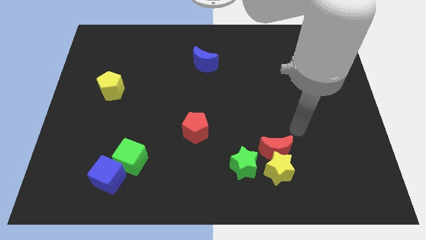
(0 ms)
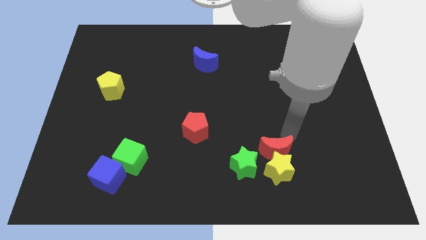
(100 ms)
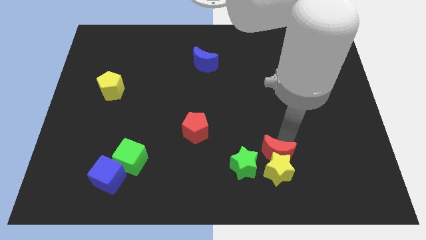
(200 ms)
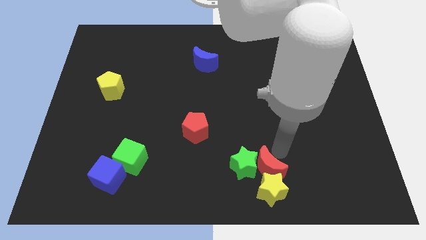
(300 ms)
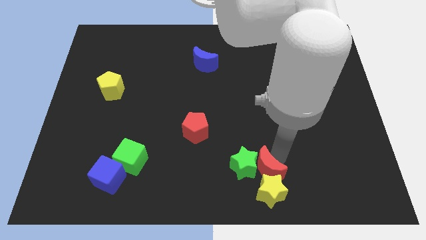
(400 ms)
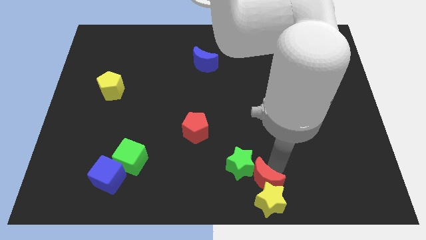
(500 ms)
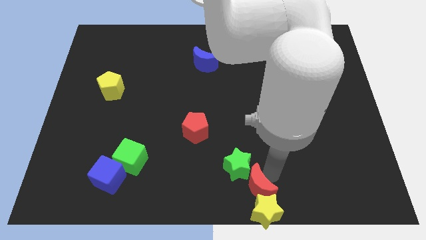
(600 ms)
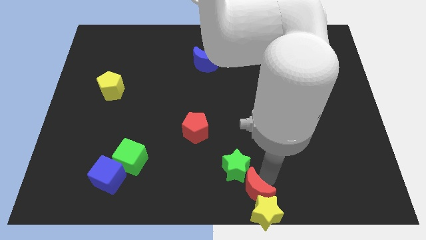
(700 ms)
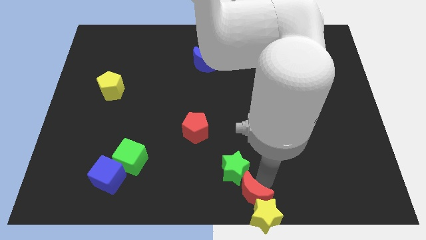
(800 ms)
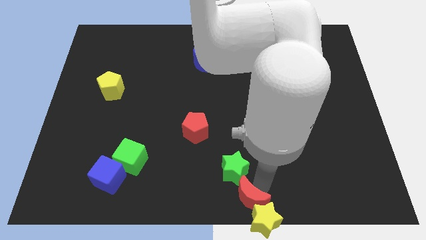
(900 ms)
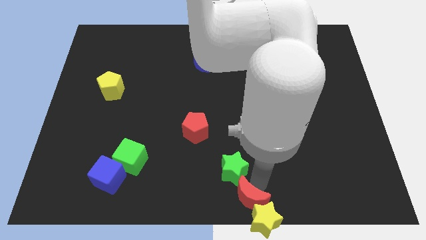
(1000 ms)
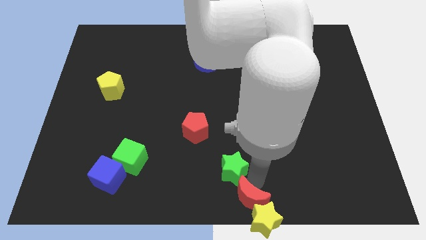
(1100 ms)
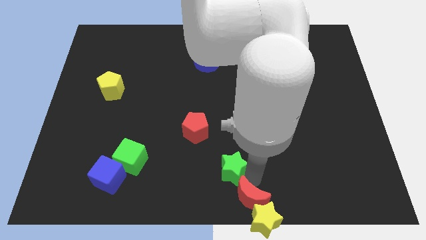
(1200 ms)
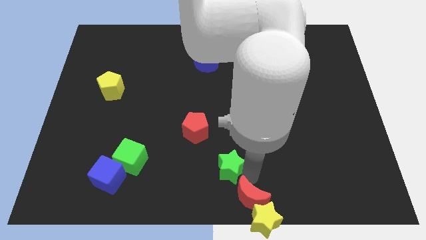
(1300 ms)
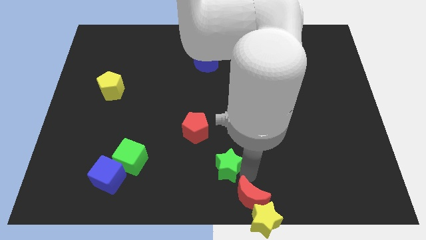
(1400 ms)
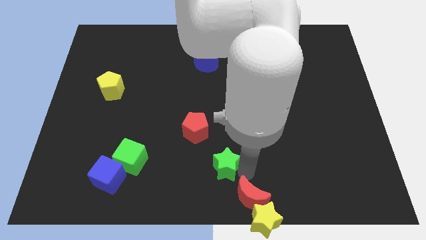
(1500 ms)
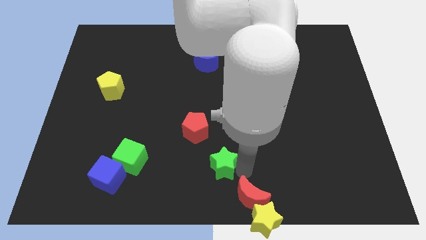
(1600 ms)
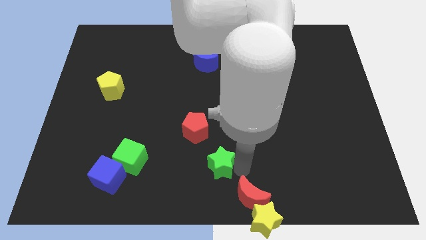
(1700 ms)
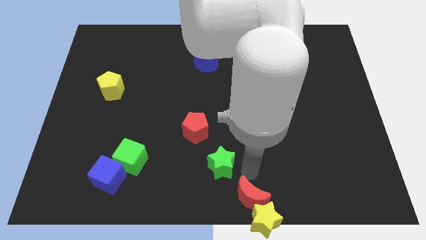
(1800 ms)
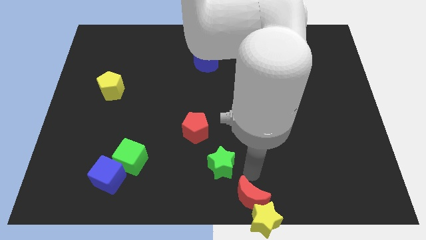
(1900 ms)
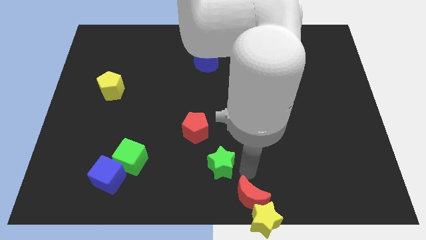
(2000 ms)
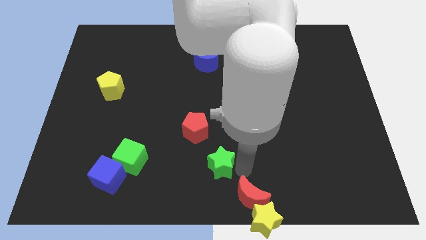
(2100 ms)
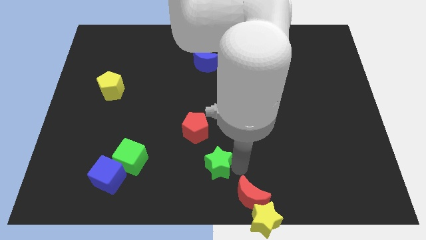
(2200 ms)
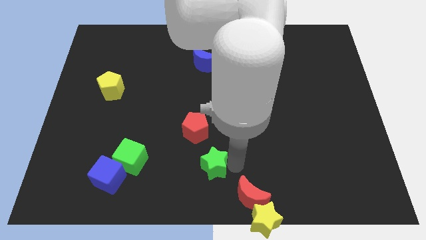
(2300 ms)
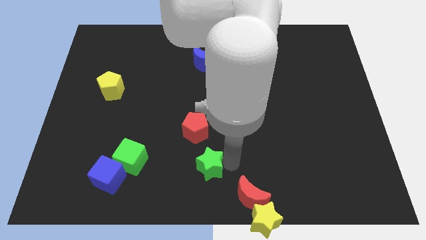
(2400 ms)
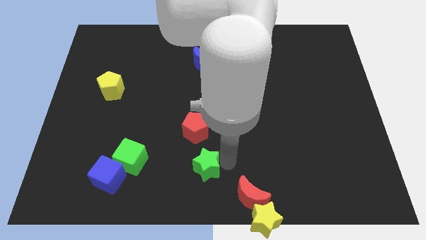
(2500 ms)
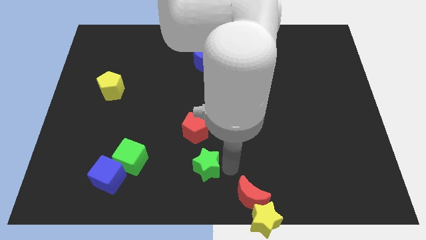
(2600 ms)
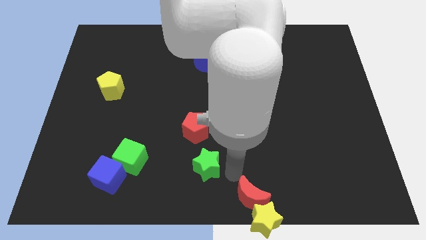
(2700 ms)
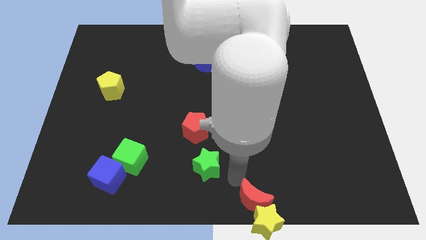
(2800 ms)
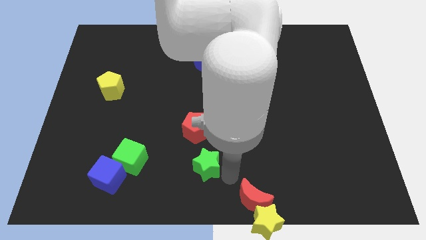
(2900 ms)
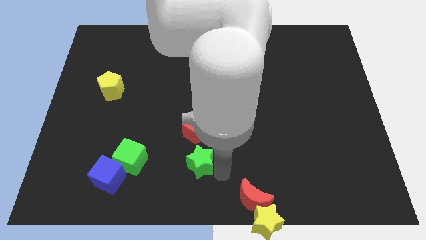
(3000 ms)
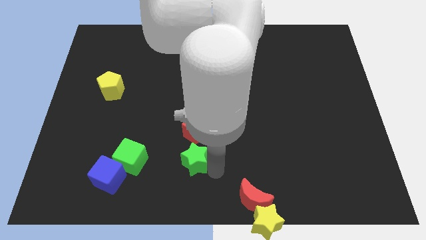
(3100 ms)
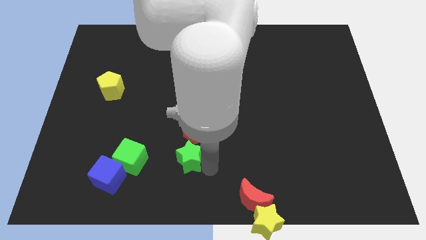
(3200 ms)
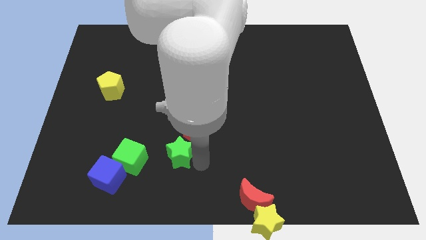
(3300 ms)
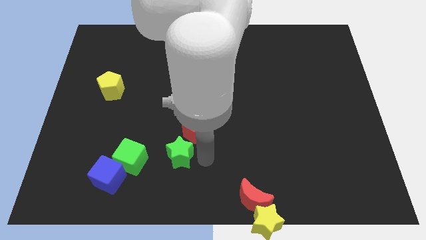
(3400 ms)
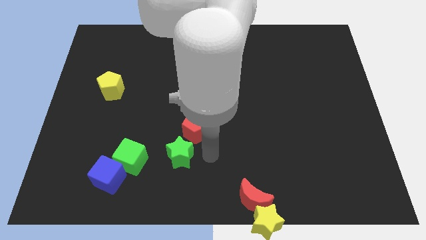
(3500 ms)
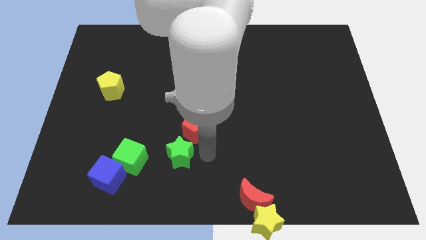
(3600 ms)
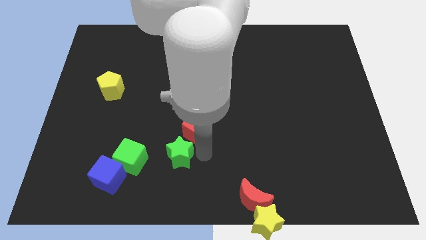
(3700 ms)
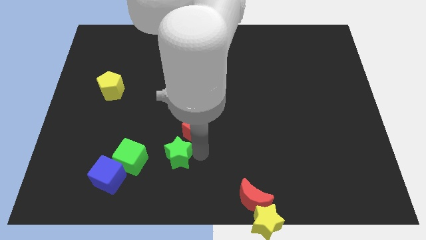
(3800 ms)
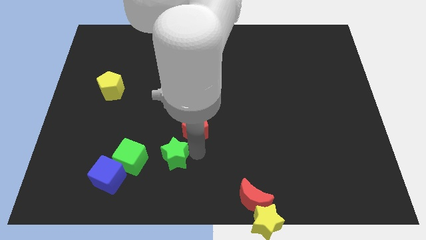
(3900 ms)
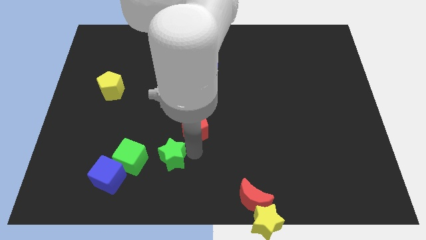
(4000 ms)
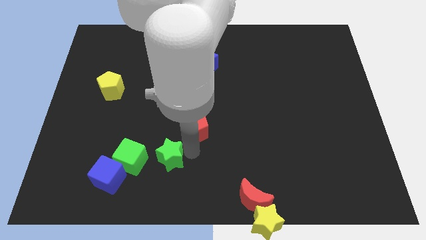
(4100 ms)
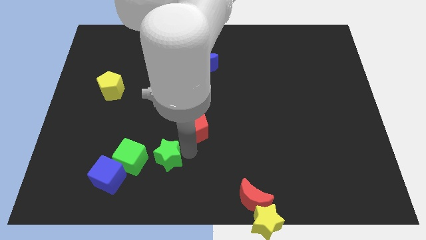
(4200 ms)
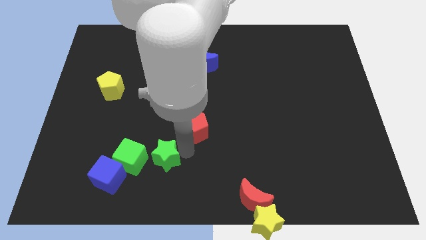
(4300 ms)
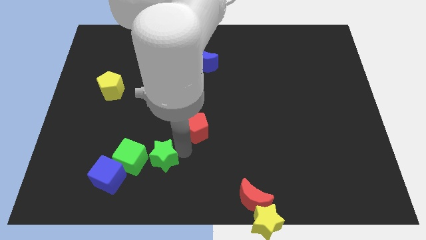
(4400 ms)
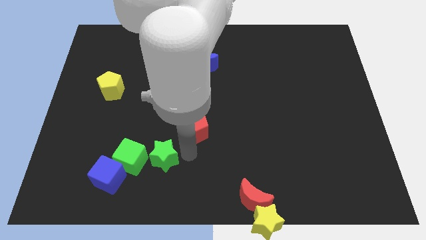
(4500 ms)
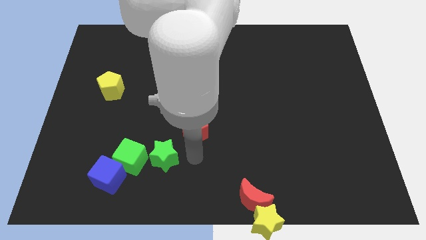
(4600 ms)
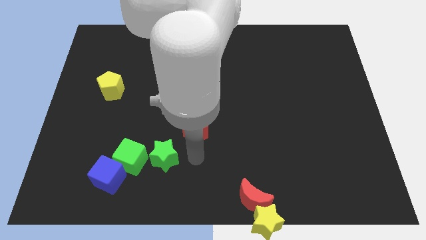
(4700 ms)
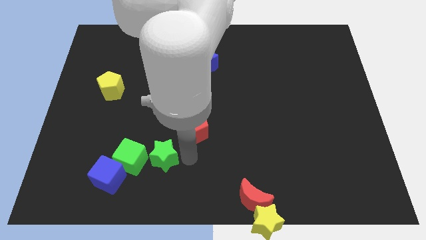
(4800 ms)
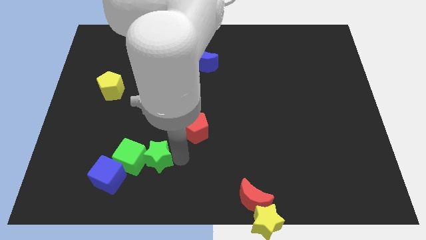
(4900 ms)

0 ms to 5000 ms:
move the green star next to the green cube

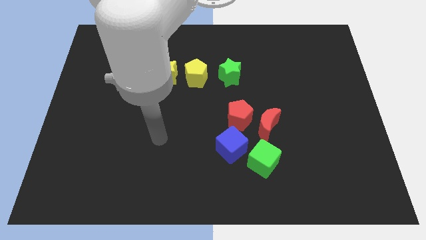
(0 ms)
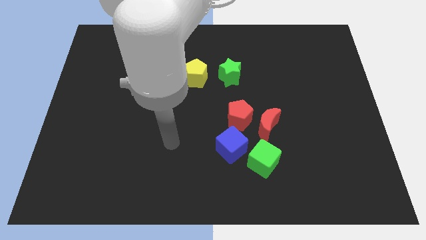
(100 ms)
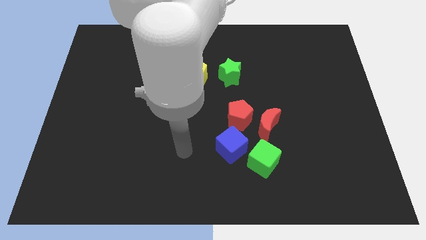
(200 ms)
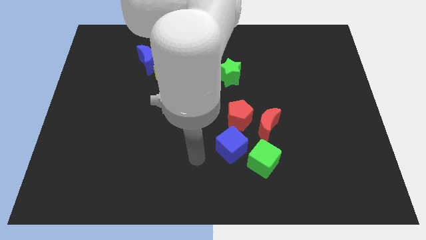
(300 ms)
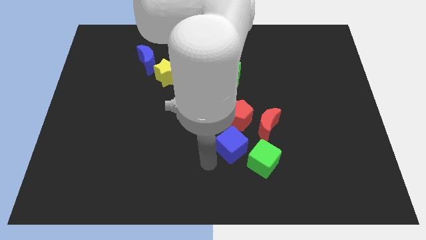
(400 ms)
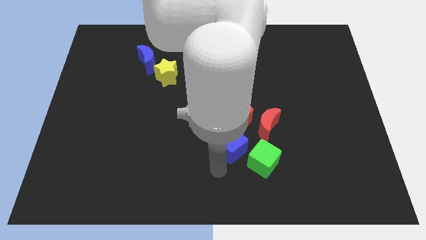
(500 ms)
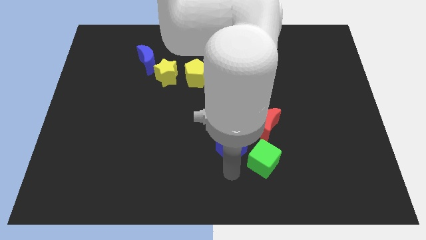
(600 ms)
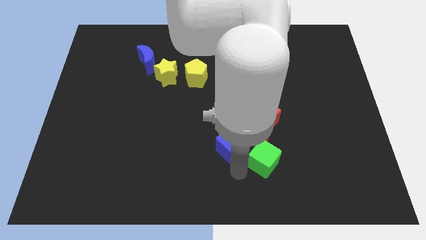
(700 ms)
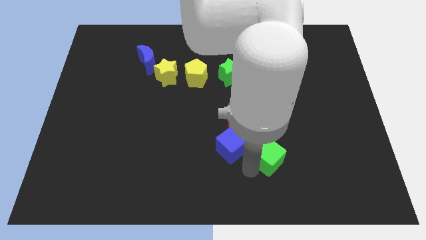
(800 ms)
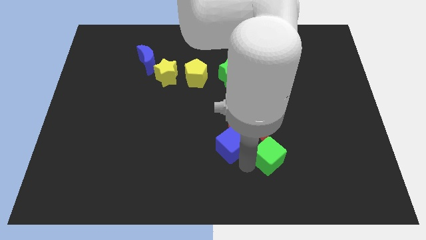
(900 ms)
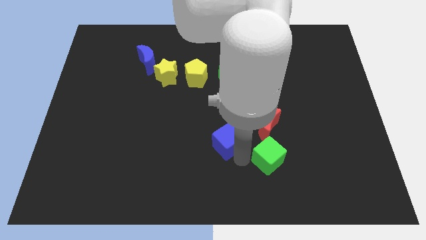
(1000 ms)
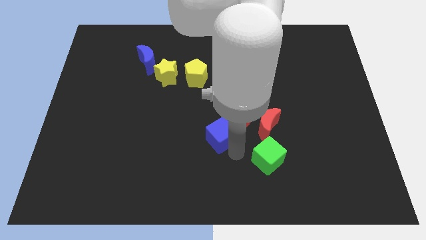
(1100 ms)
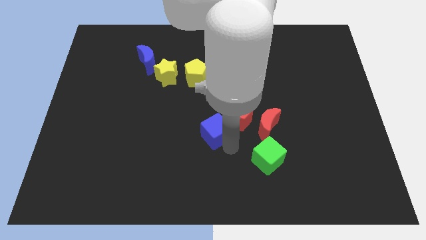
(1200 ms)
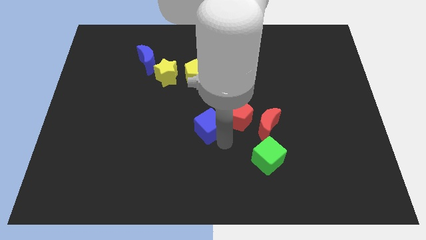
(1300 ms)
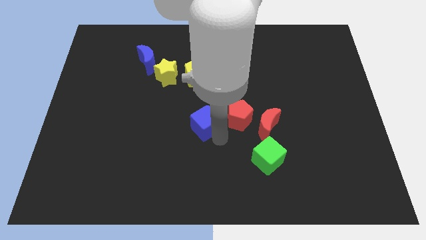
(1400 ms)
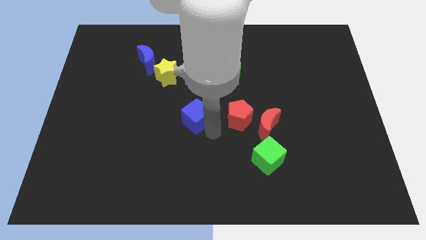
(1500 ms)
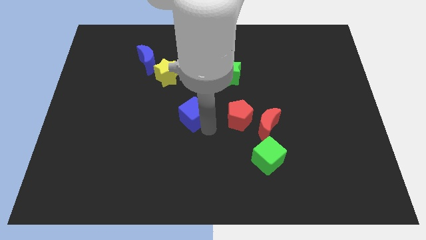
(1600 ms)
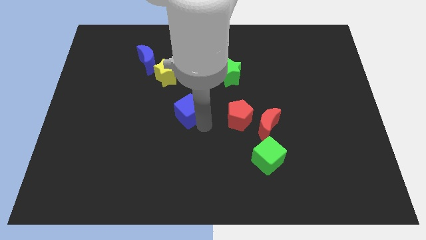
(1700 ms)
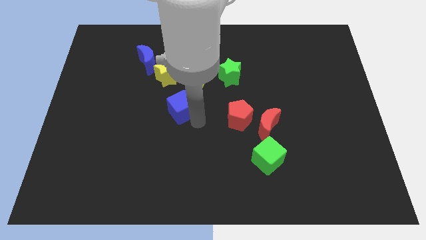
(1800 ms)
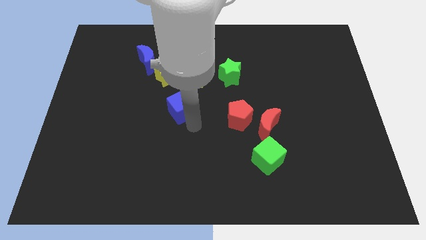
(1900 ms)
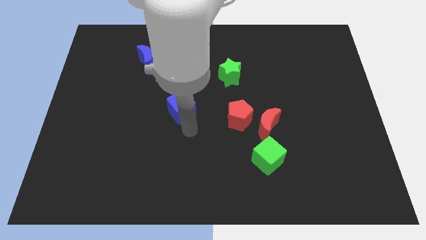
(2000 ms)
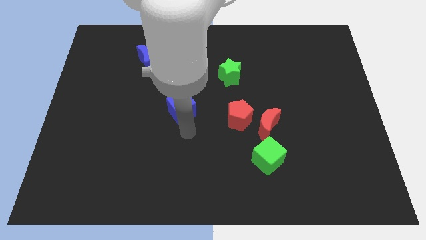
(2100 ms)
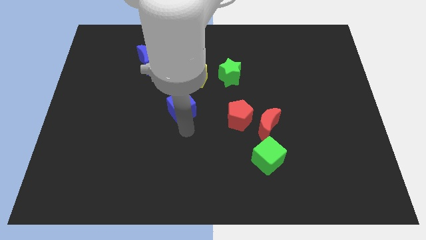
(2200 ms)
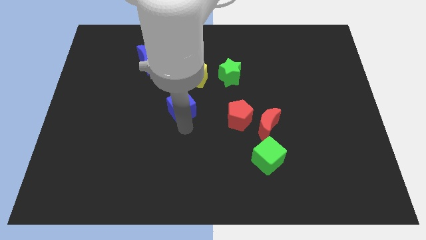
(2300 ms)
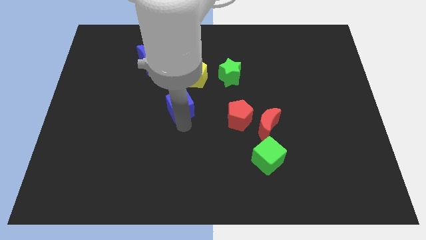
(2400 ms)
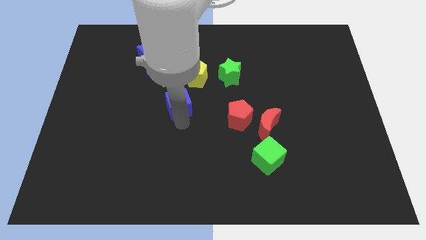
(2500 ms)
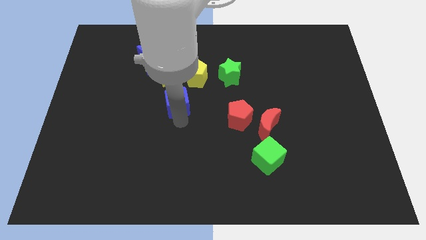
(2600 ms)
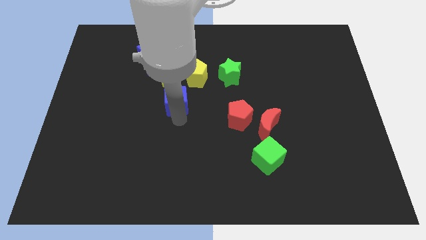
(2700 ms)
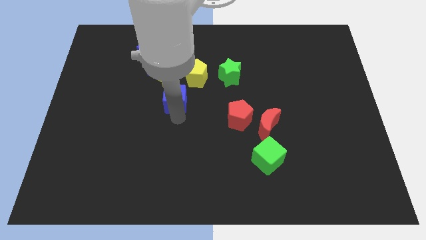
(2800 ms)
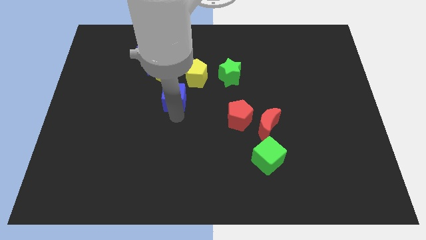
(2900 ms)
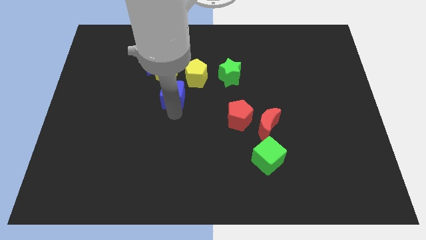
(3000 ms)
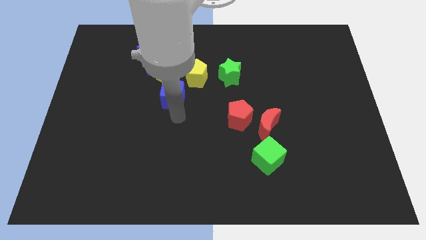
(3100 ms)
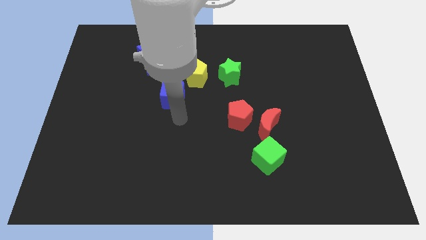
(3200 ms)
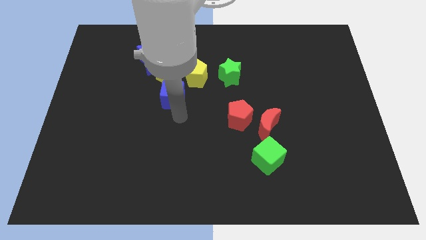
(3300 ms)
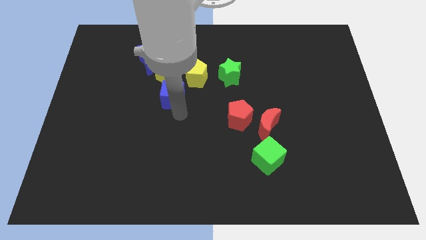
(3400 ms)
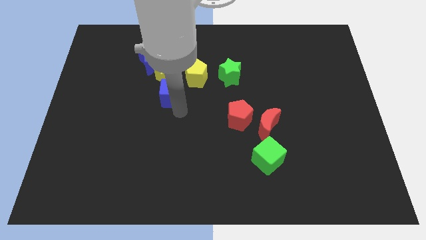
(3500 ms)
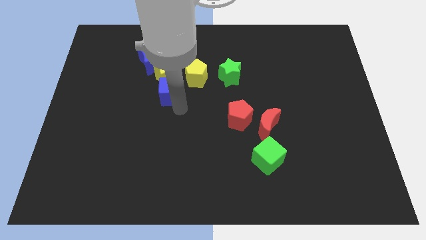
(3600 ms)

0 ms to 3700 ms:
put the blue cube close to the yellow star
